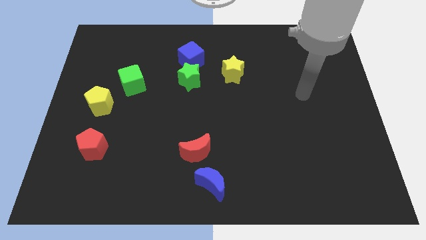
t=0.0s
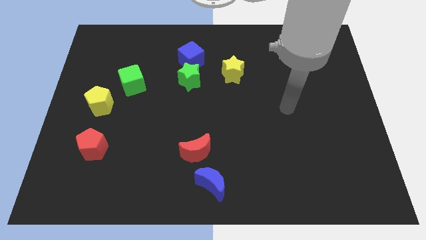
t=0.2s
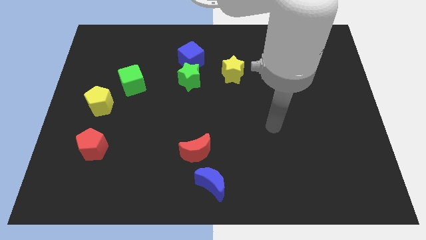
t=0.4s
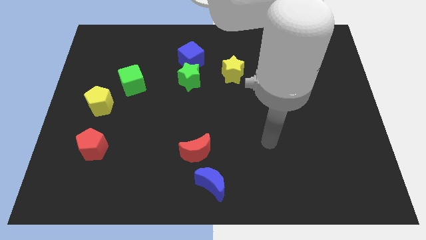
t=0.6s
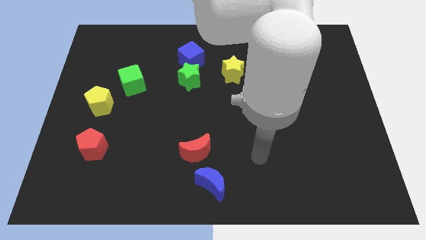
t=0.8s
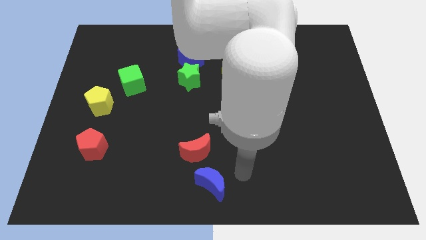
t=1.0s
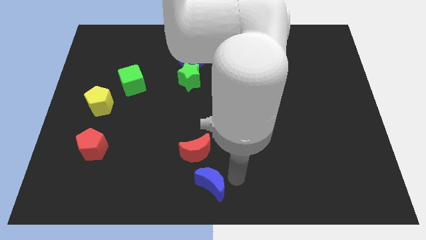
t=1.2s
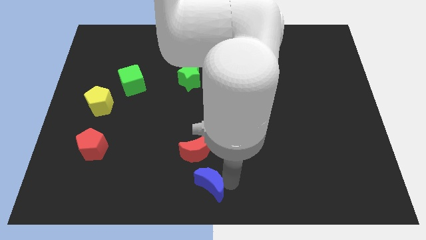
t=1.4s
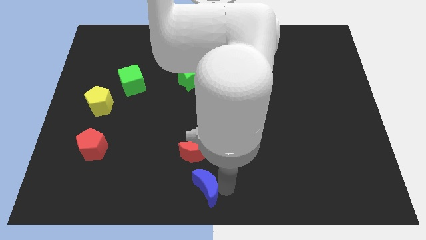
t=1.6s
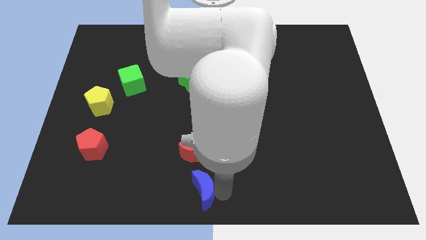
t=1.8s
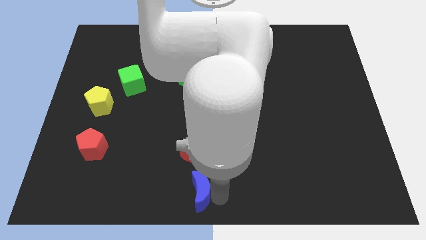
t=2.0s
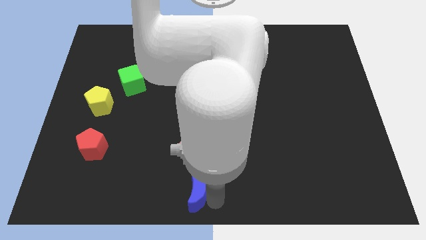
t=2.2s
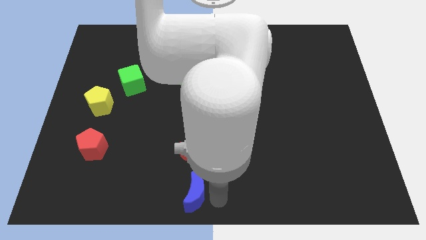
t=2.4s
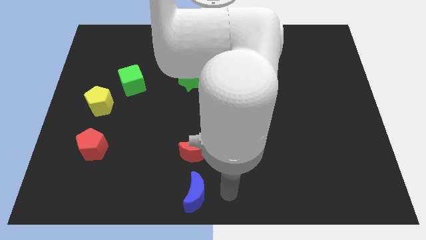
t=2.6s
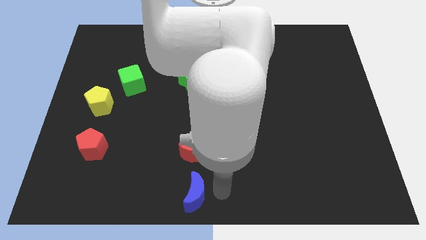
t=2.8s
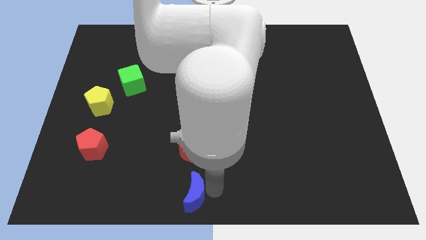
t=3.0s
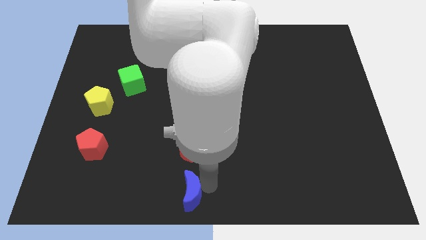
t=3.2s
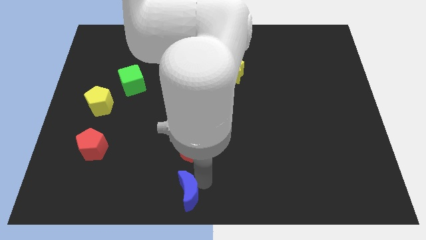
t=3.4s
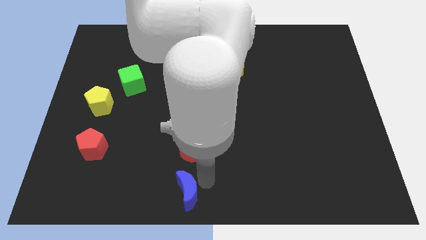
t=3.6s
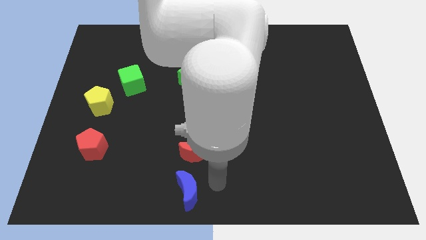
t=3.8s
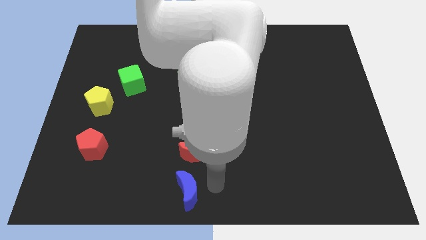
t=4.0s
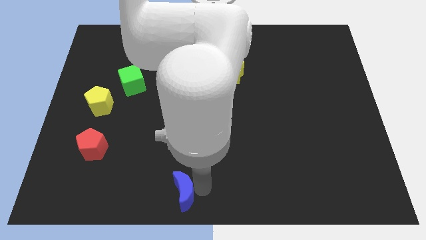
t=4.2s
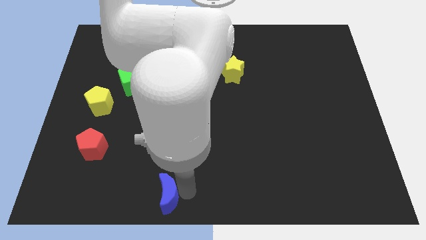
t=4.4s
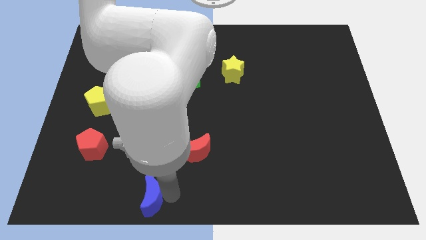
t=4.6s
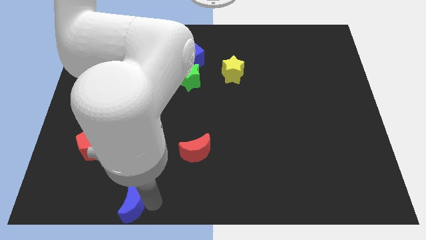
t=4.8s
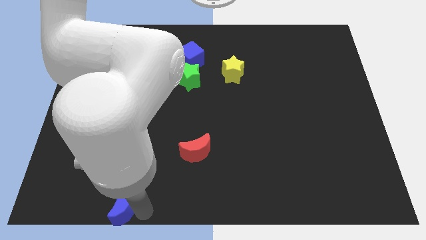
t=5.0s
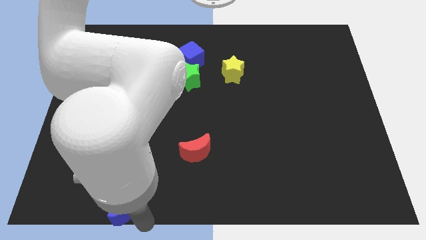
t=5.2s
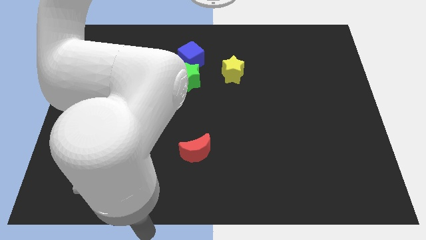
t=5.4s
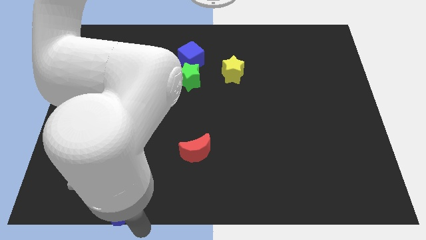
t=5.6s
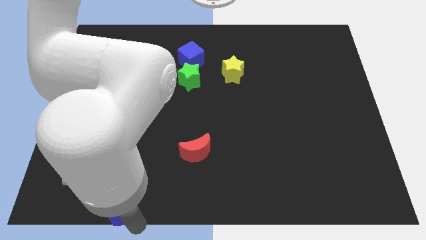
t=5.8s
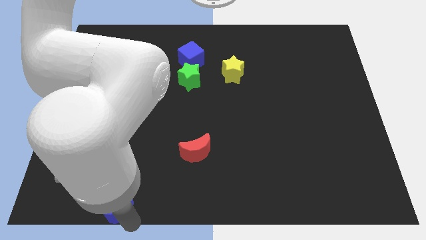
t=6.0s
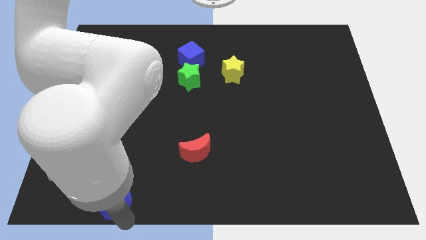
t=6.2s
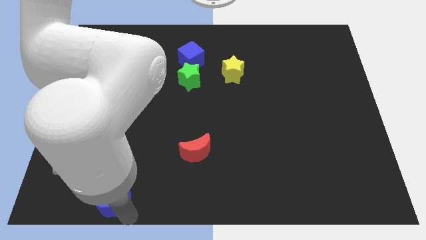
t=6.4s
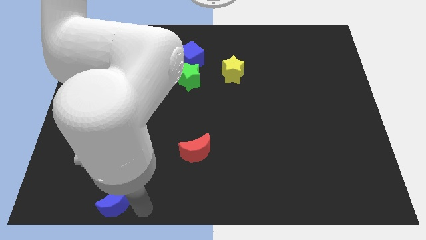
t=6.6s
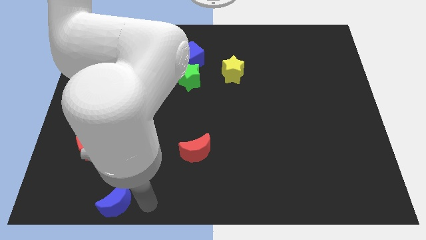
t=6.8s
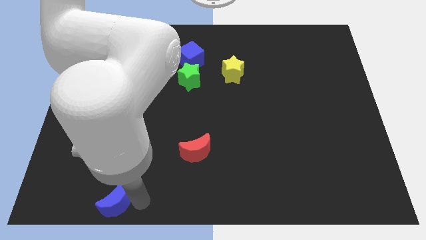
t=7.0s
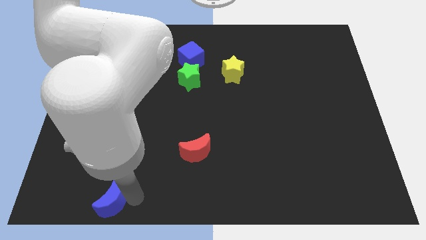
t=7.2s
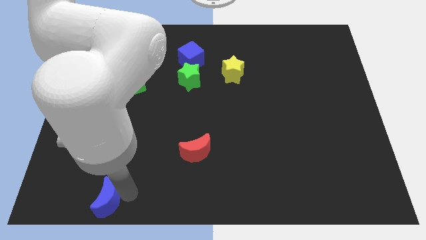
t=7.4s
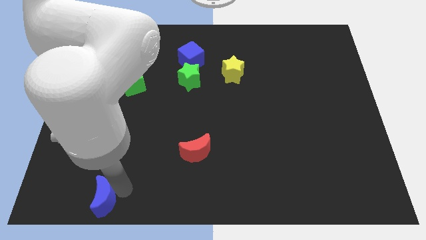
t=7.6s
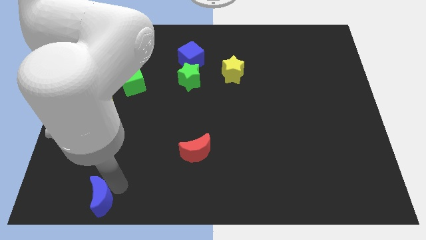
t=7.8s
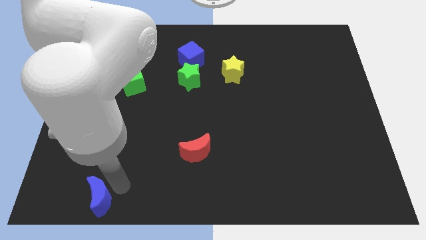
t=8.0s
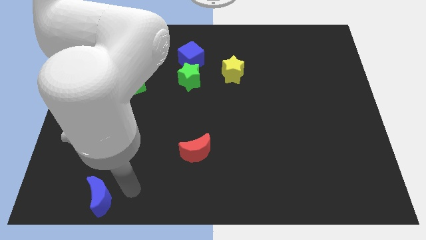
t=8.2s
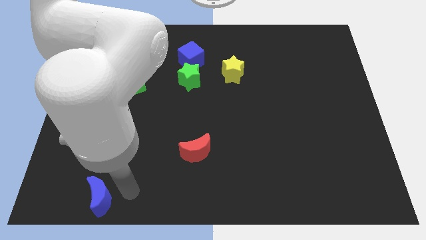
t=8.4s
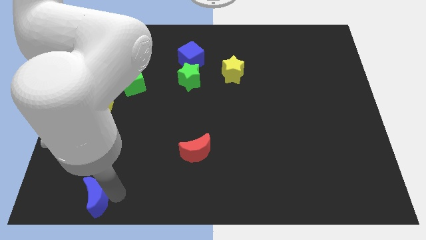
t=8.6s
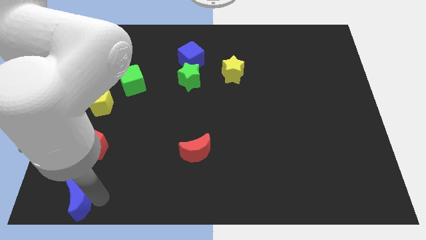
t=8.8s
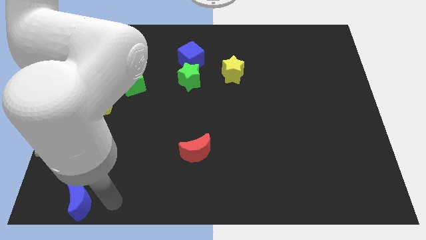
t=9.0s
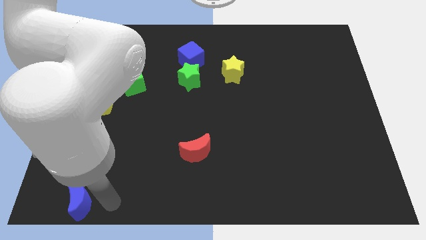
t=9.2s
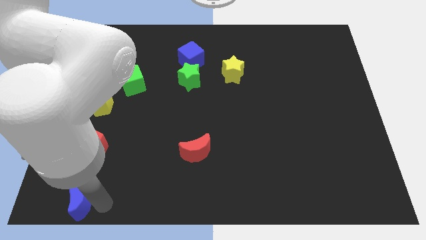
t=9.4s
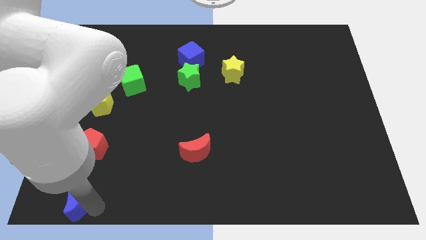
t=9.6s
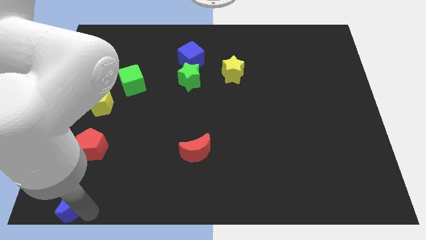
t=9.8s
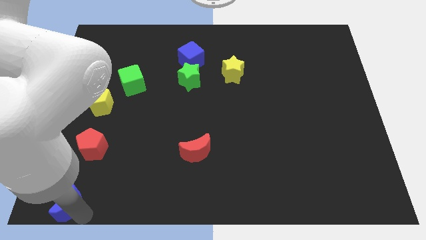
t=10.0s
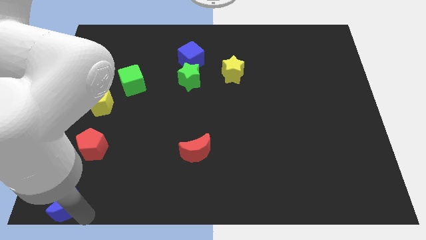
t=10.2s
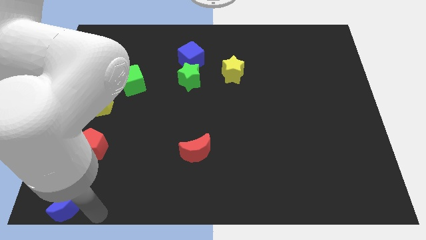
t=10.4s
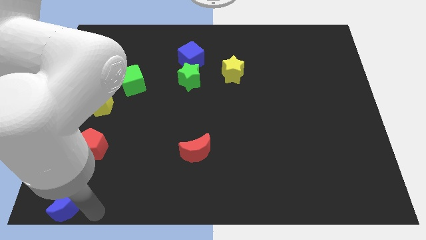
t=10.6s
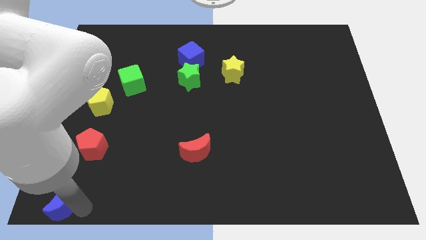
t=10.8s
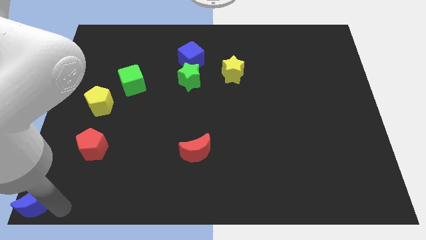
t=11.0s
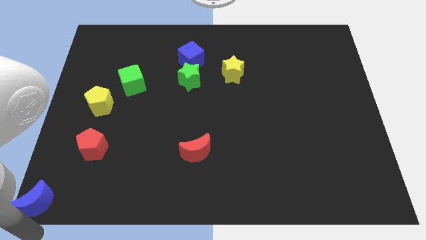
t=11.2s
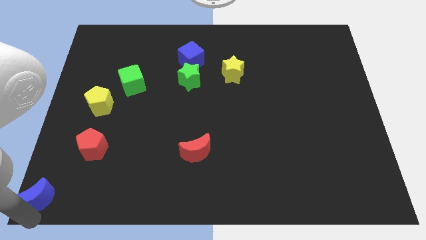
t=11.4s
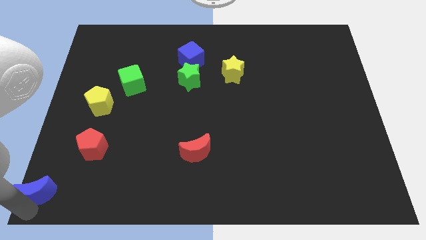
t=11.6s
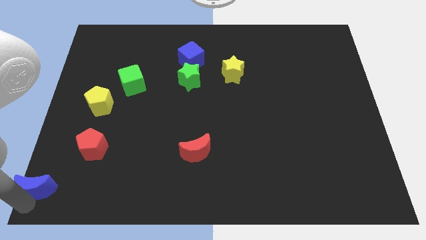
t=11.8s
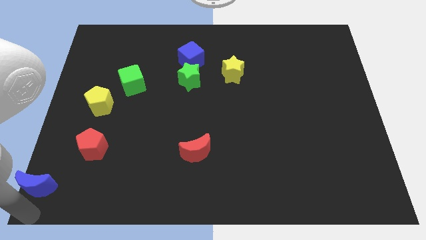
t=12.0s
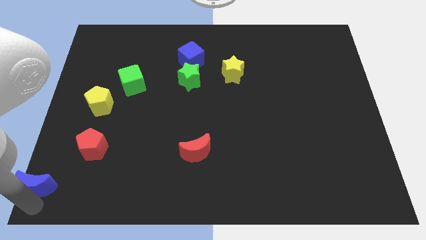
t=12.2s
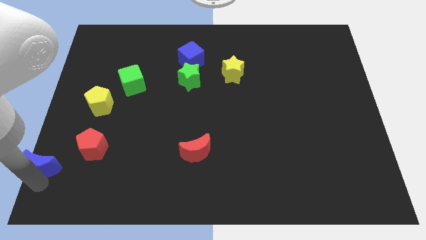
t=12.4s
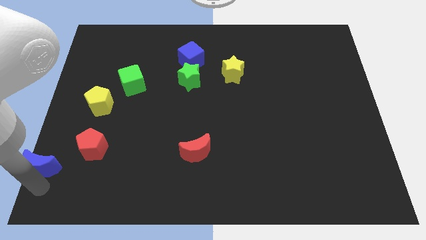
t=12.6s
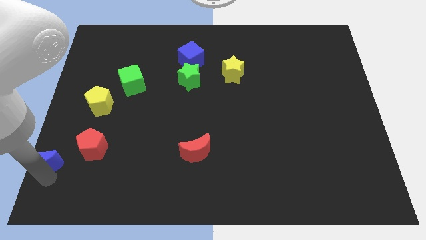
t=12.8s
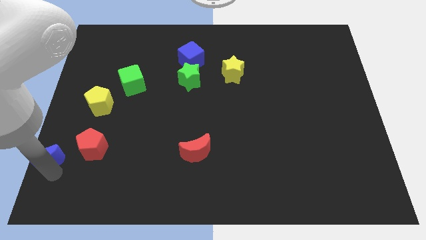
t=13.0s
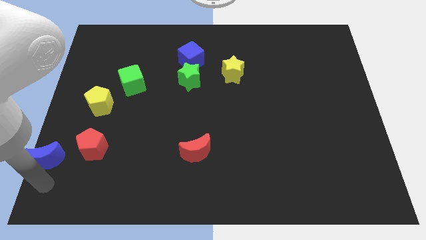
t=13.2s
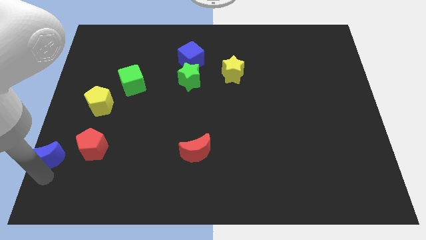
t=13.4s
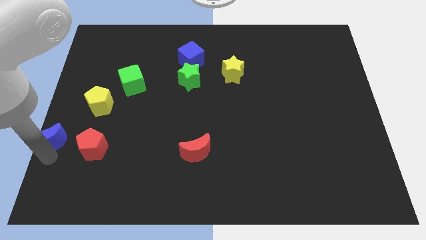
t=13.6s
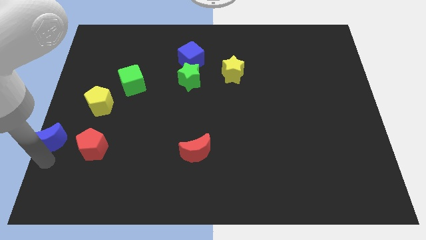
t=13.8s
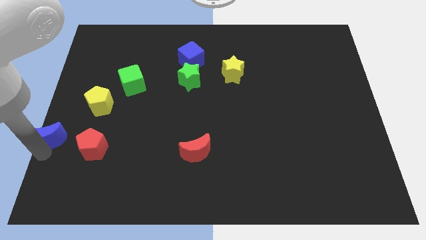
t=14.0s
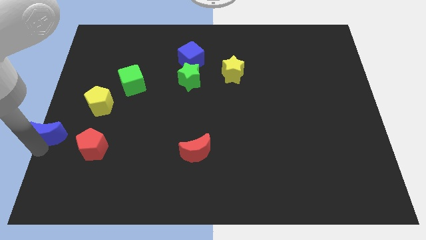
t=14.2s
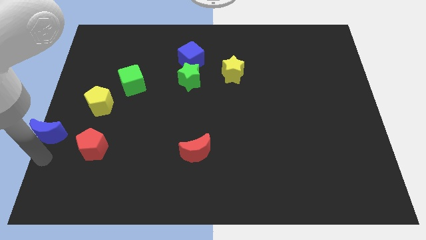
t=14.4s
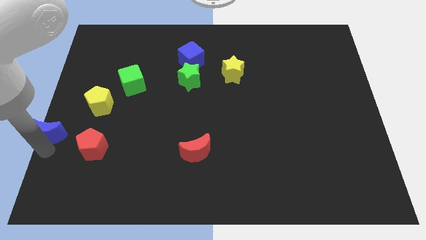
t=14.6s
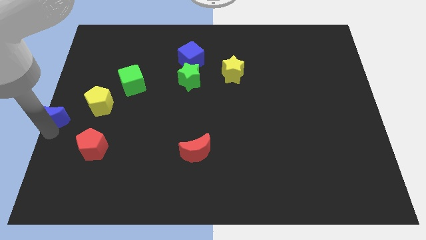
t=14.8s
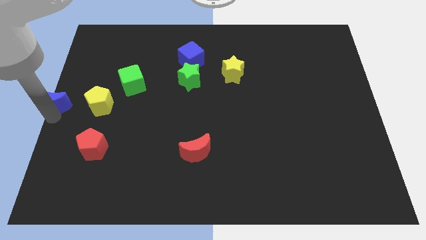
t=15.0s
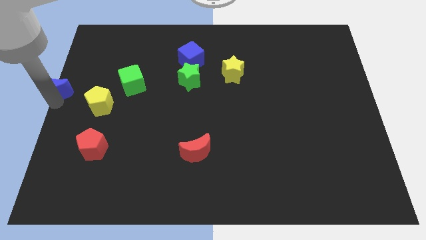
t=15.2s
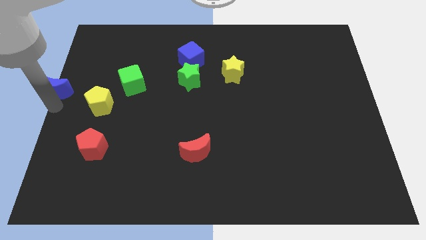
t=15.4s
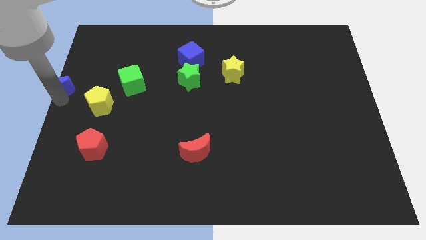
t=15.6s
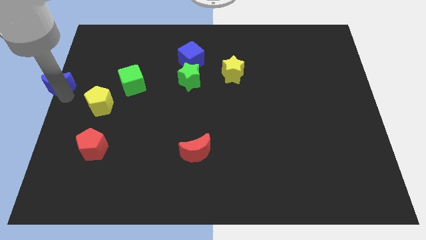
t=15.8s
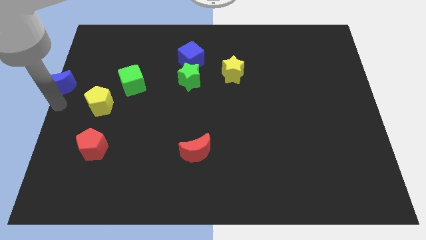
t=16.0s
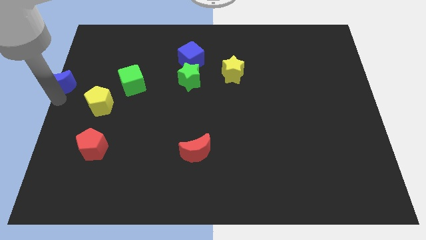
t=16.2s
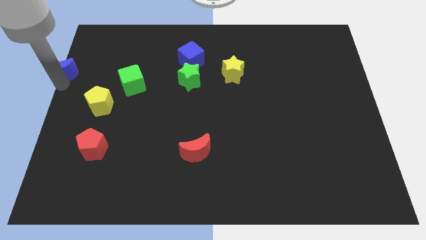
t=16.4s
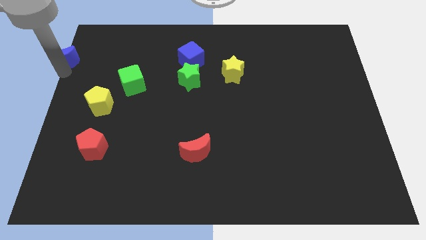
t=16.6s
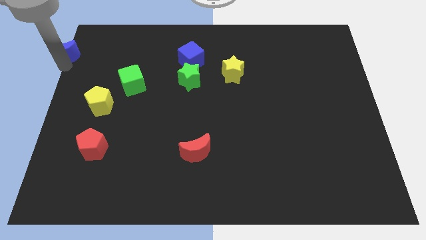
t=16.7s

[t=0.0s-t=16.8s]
move the blue moon to the upper left corner
